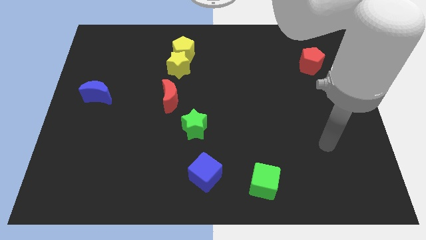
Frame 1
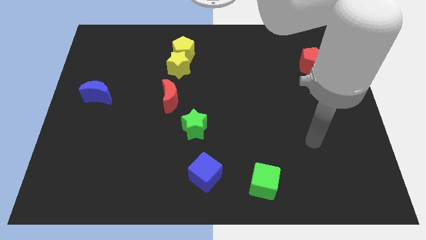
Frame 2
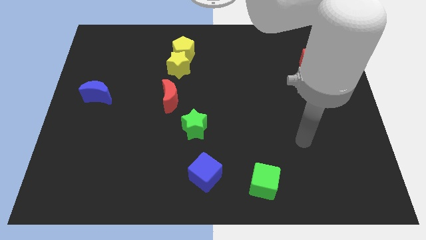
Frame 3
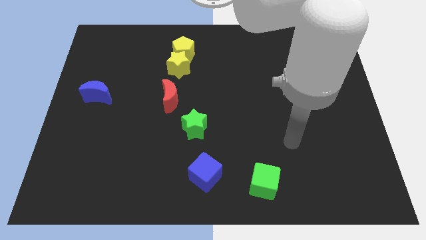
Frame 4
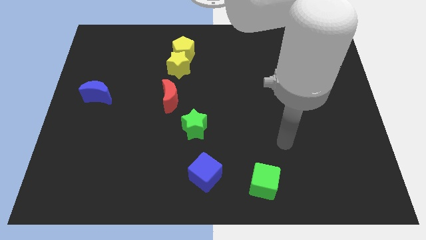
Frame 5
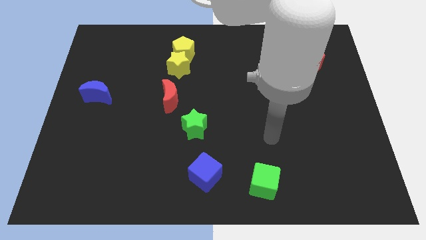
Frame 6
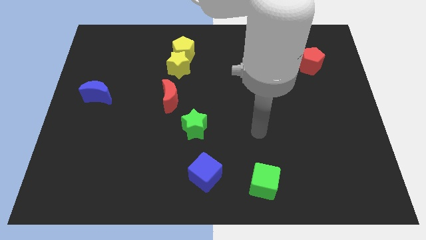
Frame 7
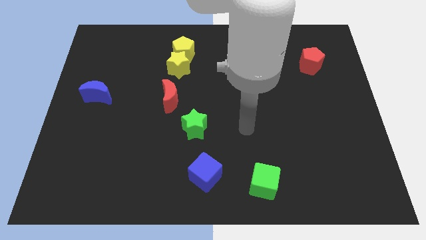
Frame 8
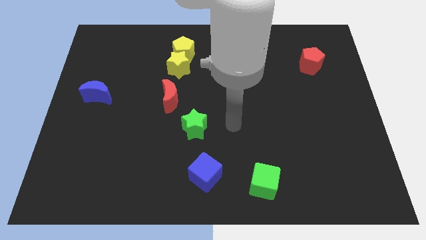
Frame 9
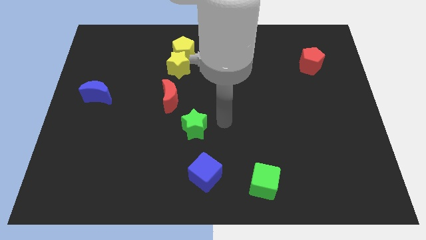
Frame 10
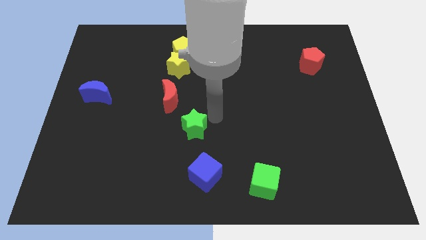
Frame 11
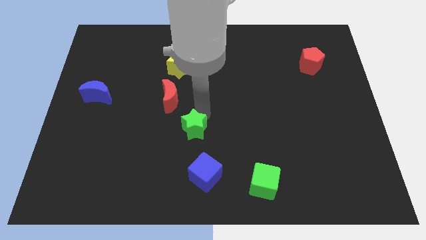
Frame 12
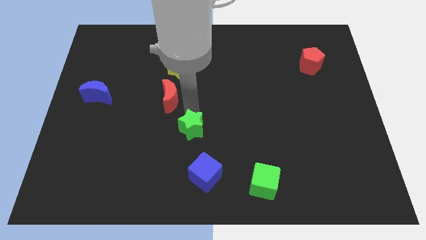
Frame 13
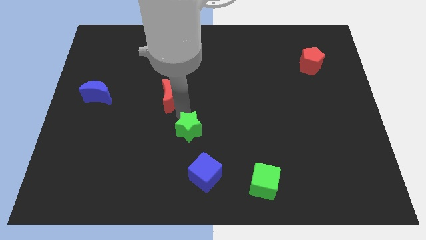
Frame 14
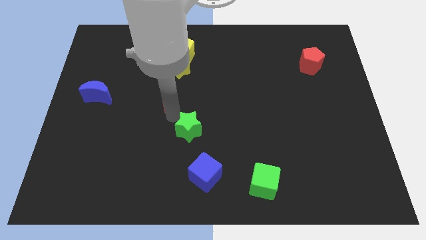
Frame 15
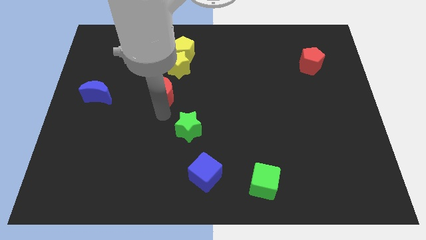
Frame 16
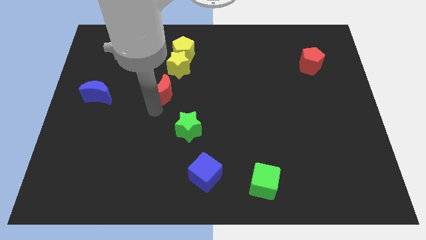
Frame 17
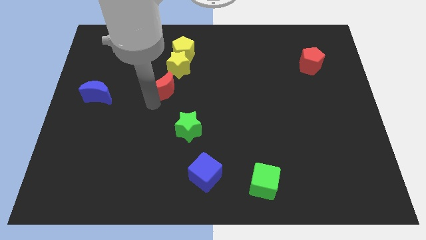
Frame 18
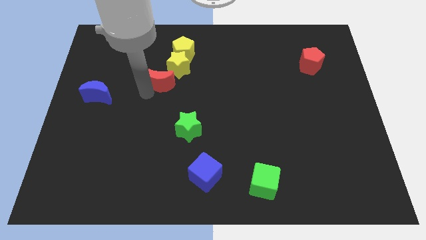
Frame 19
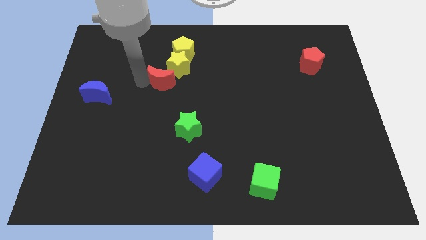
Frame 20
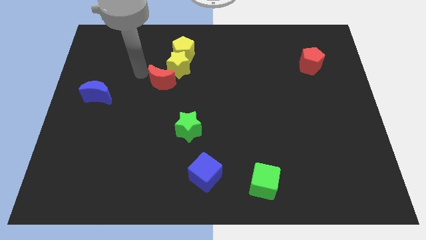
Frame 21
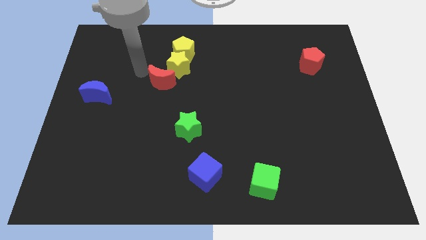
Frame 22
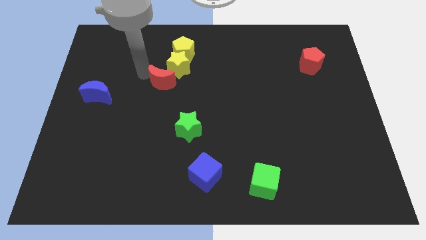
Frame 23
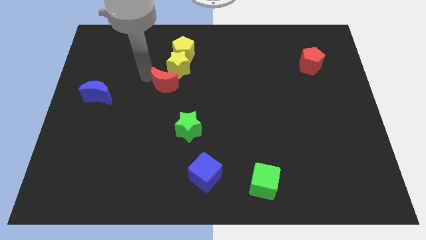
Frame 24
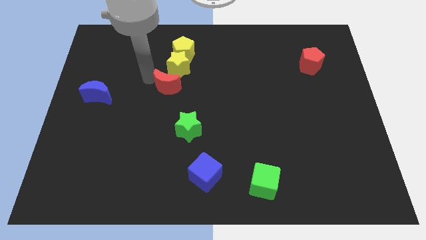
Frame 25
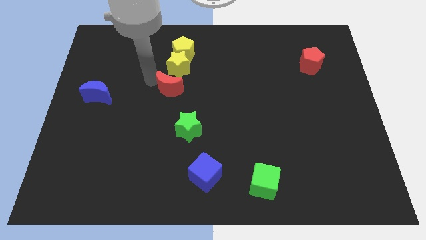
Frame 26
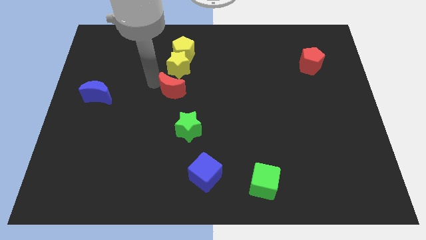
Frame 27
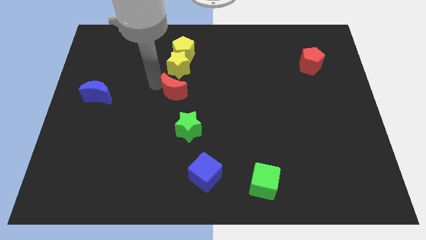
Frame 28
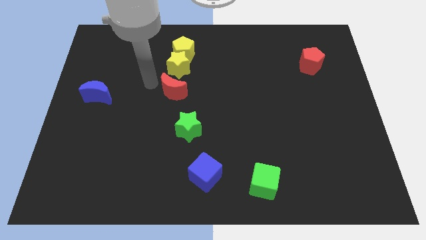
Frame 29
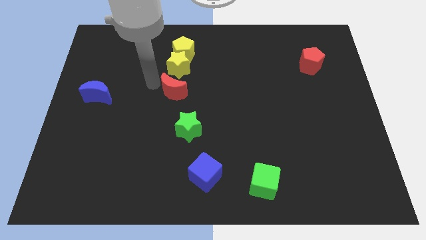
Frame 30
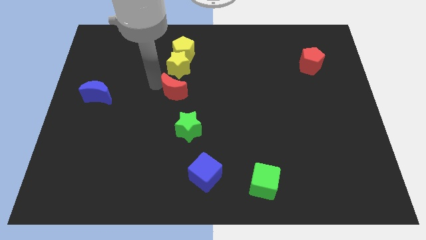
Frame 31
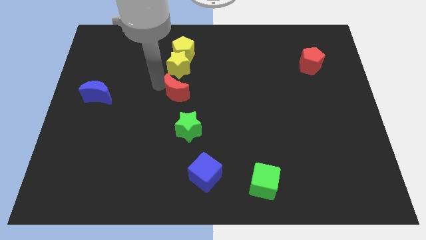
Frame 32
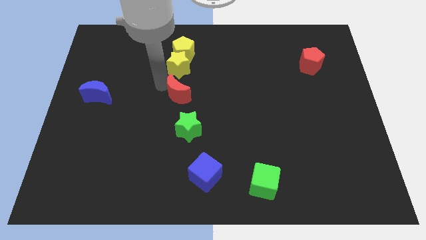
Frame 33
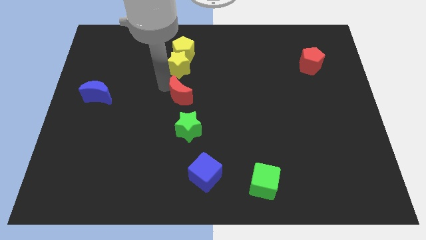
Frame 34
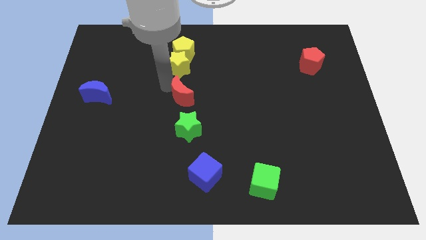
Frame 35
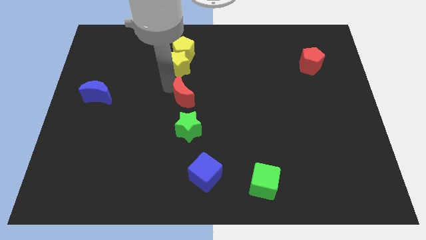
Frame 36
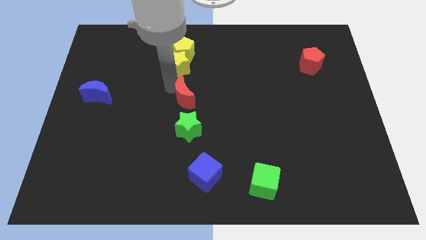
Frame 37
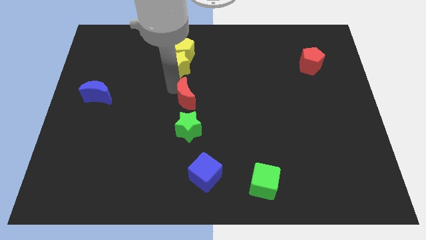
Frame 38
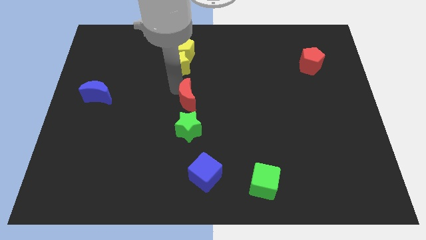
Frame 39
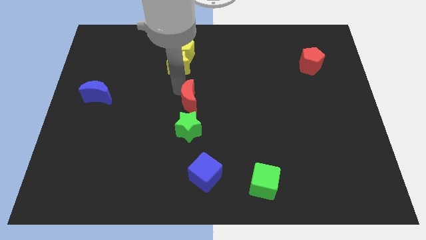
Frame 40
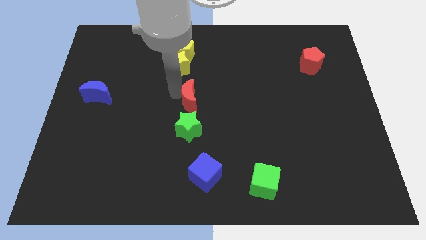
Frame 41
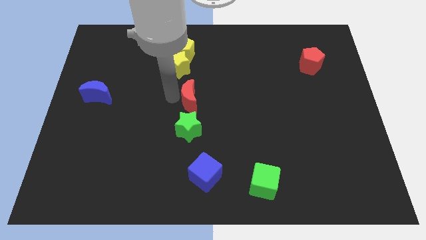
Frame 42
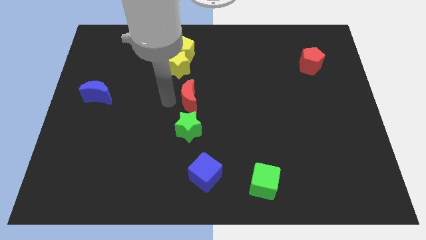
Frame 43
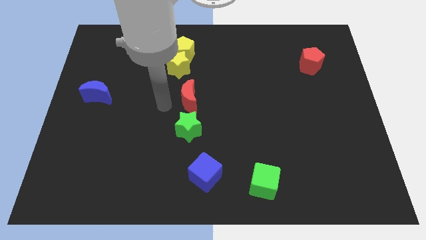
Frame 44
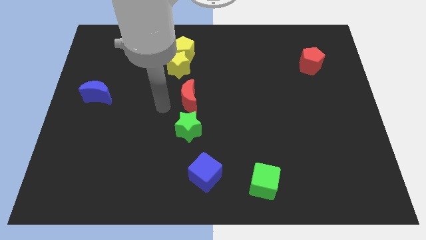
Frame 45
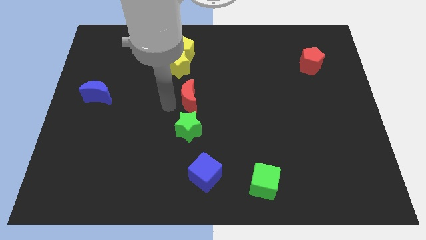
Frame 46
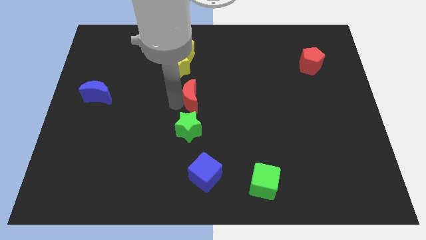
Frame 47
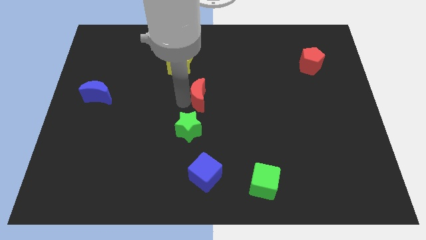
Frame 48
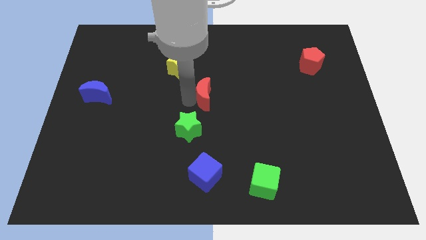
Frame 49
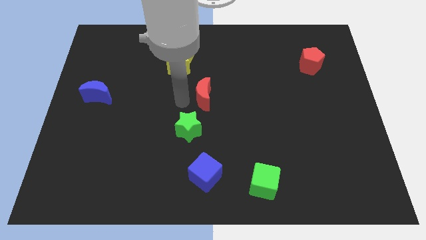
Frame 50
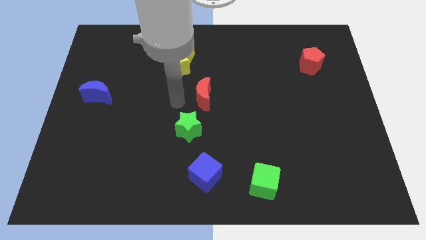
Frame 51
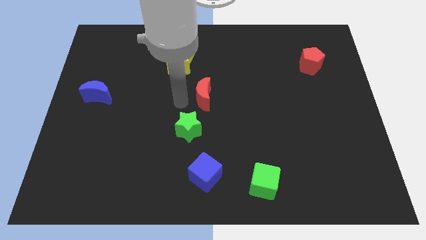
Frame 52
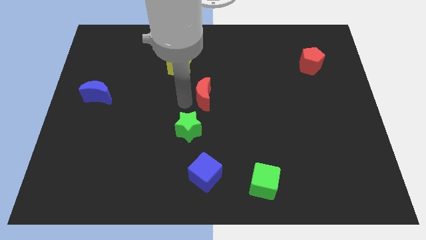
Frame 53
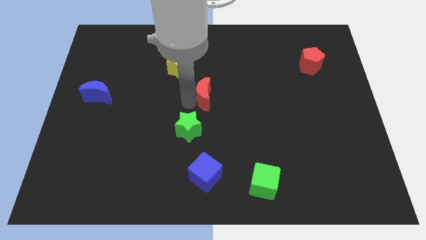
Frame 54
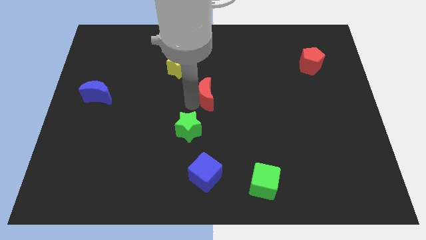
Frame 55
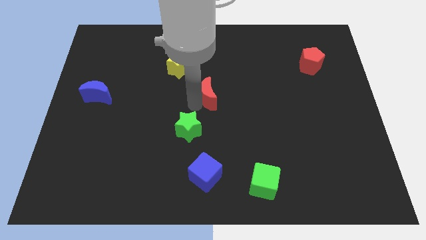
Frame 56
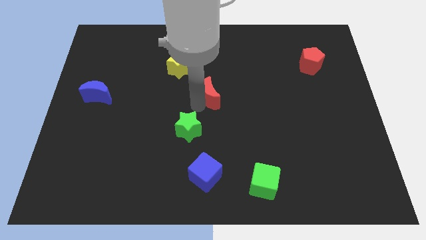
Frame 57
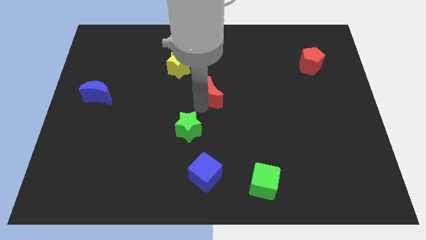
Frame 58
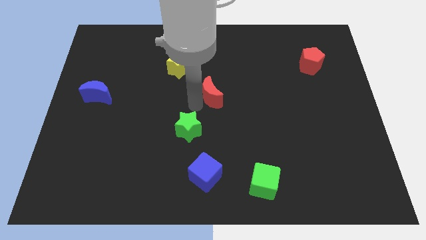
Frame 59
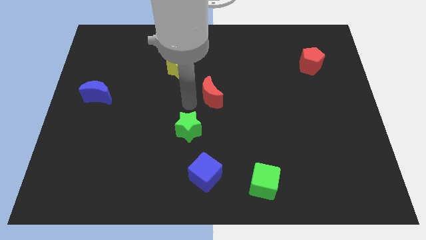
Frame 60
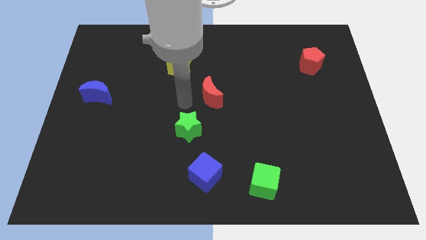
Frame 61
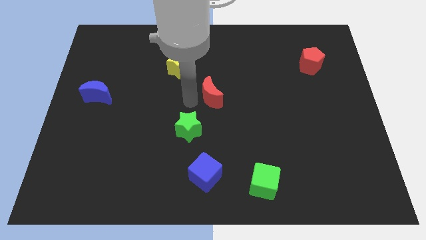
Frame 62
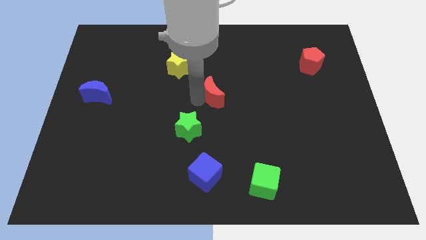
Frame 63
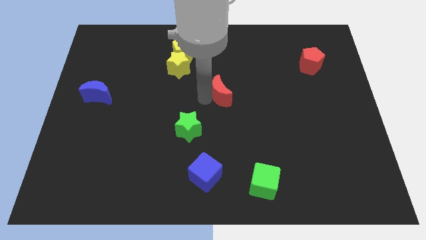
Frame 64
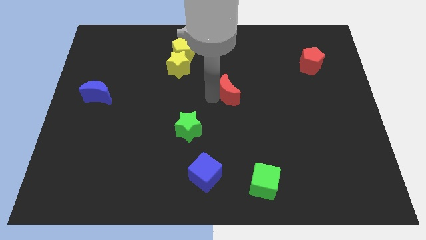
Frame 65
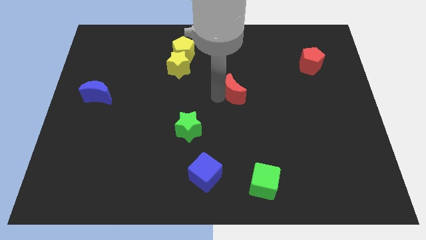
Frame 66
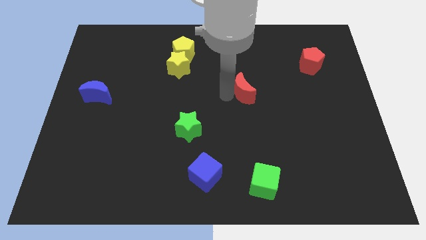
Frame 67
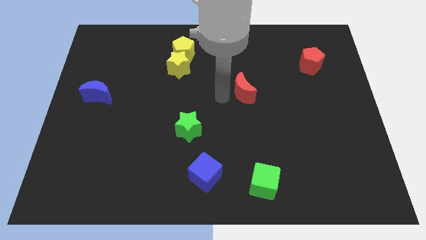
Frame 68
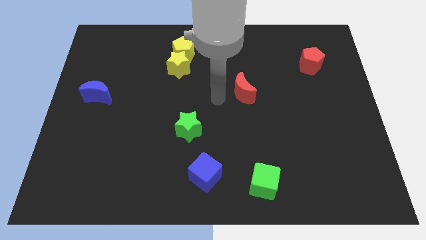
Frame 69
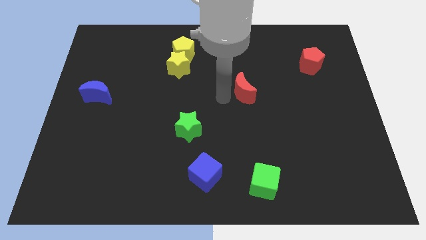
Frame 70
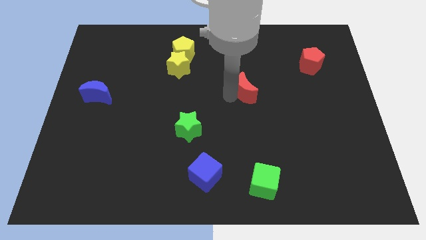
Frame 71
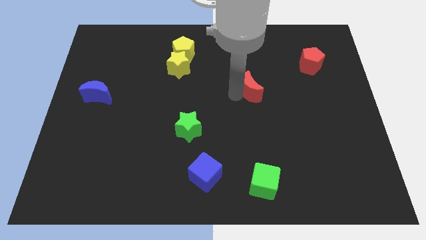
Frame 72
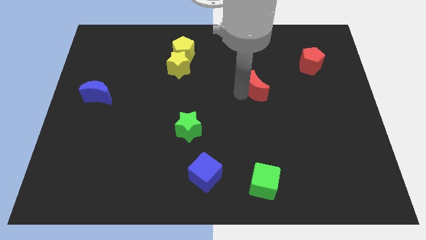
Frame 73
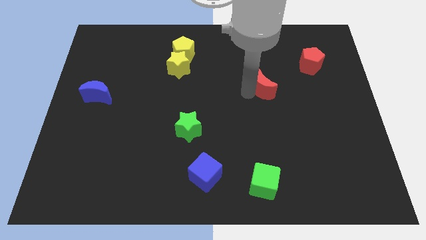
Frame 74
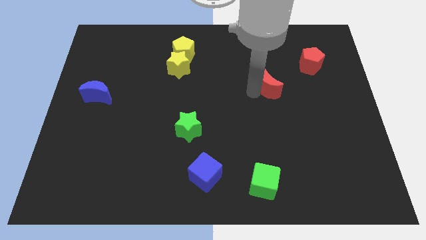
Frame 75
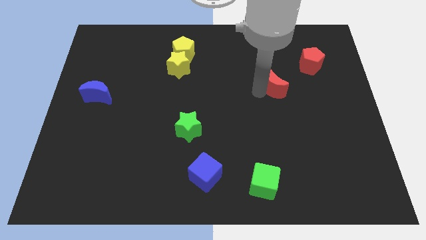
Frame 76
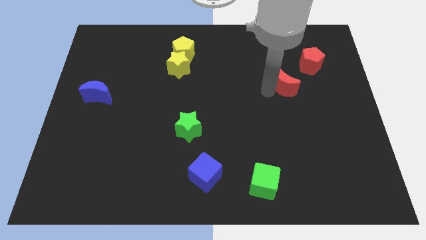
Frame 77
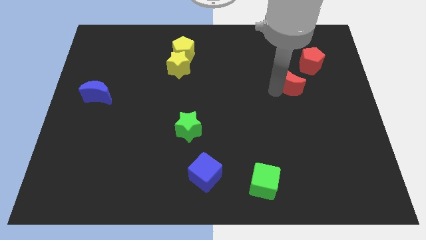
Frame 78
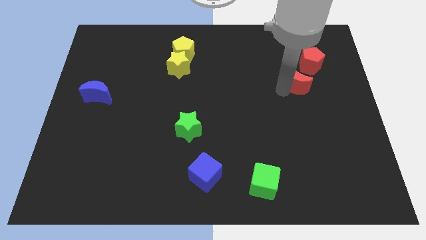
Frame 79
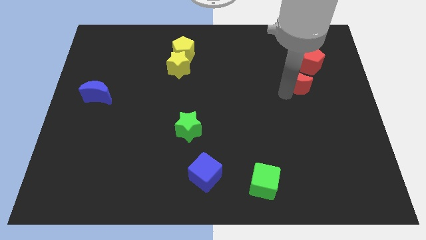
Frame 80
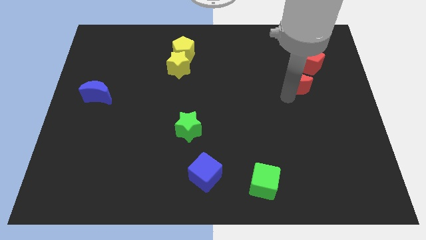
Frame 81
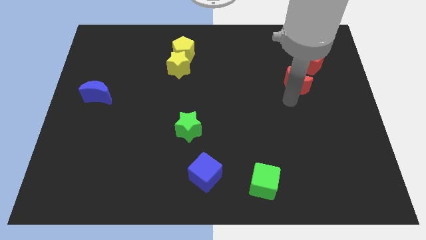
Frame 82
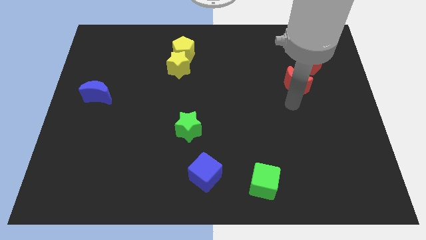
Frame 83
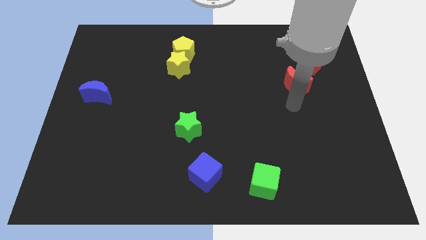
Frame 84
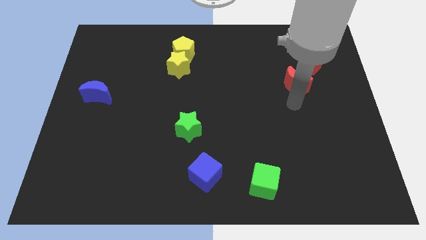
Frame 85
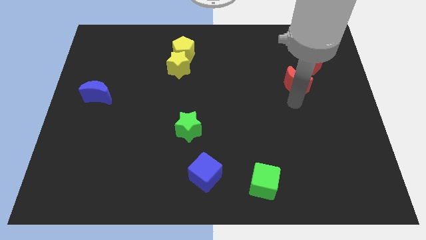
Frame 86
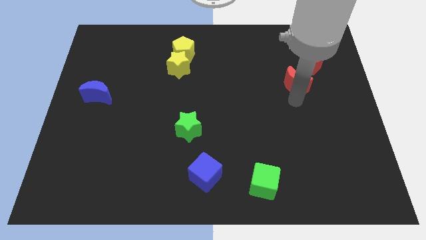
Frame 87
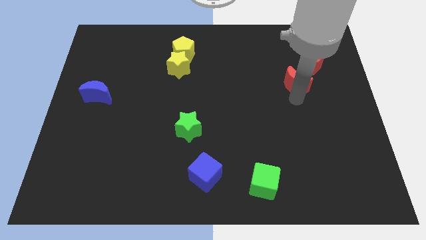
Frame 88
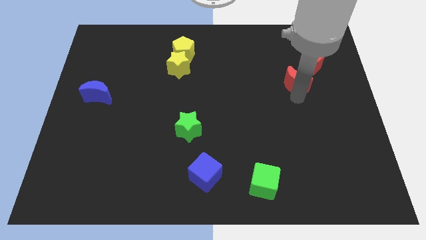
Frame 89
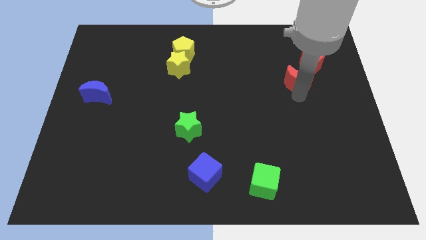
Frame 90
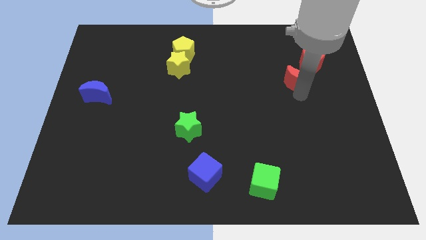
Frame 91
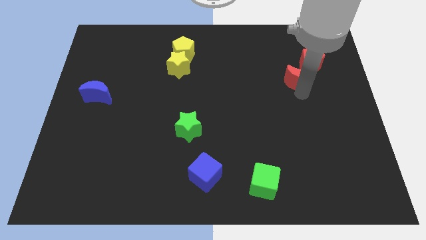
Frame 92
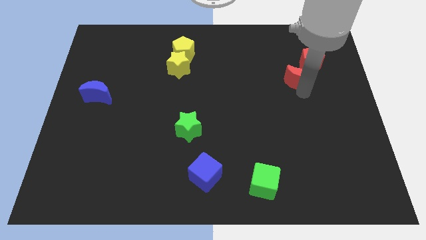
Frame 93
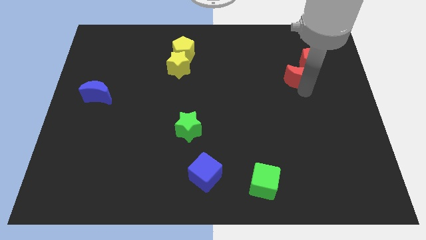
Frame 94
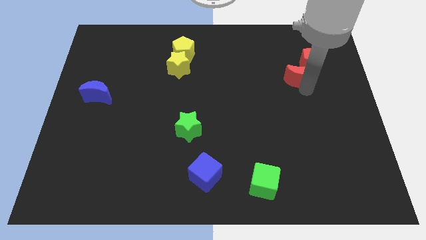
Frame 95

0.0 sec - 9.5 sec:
move the red moon towards the red pentagon
